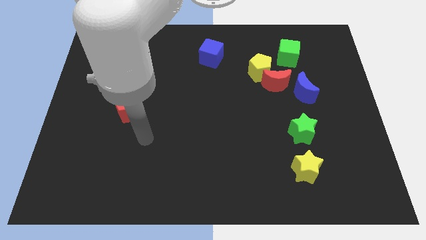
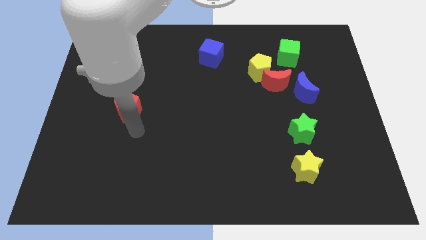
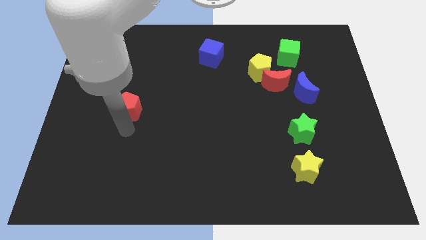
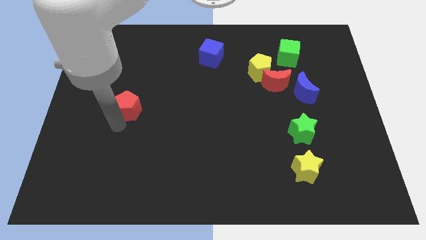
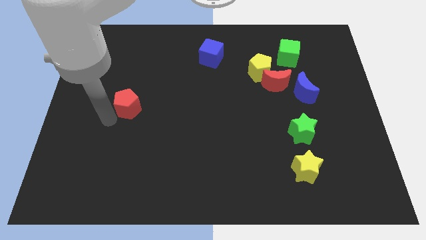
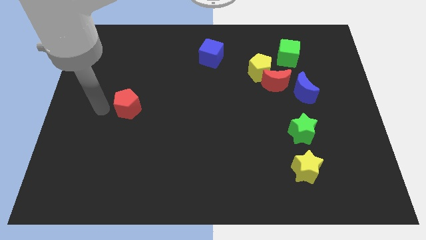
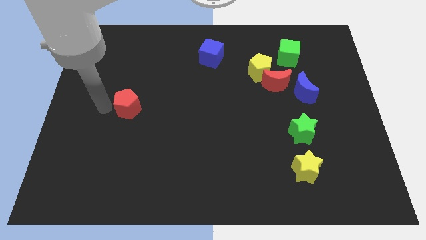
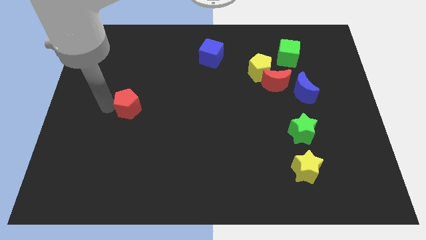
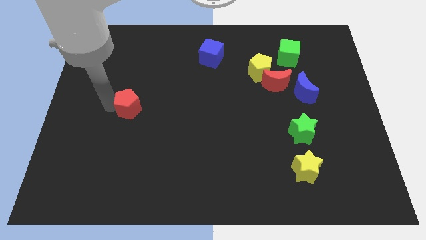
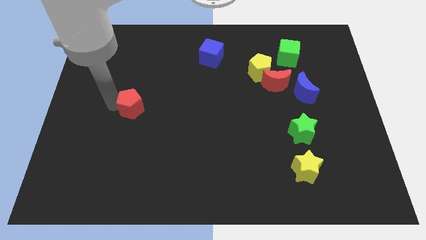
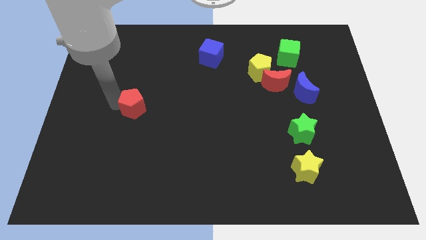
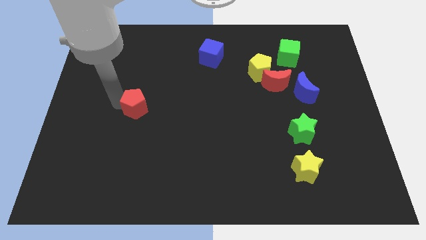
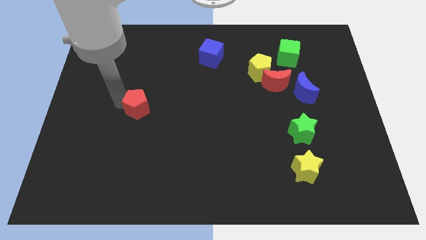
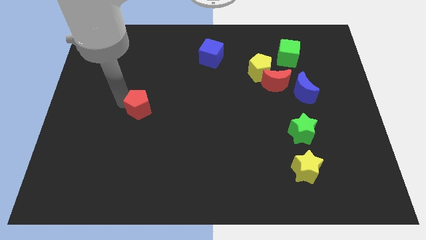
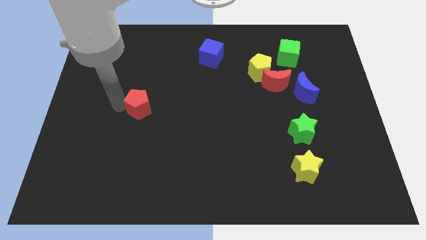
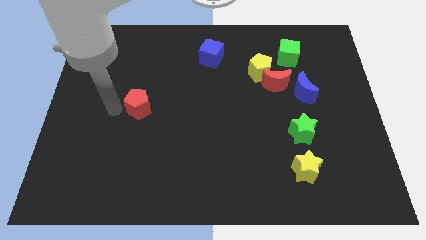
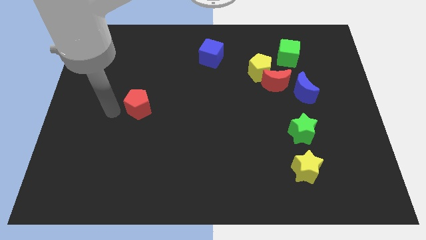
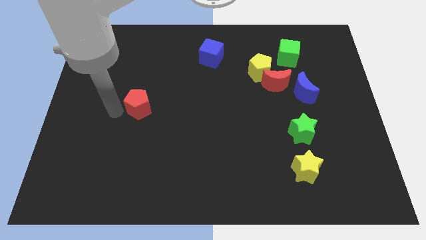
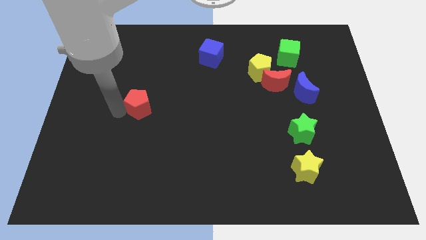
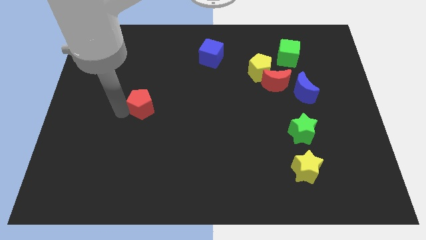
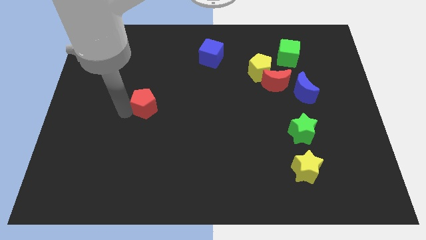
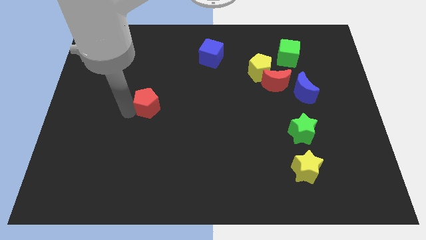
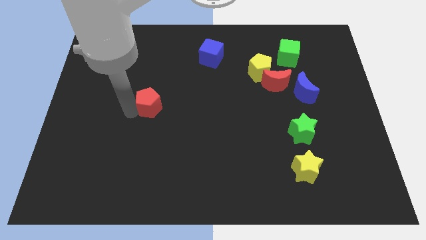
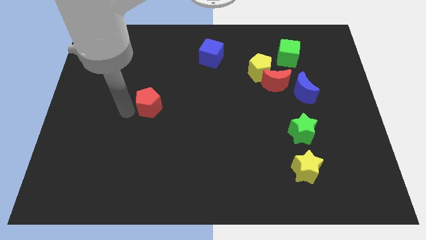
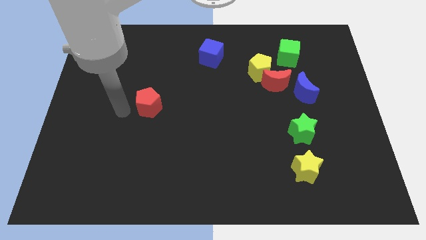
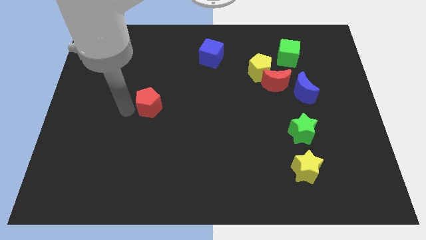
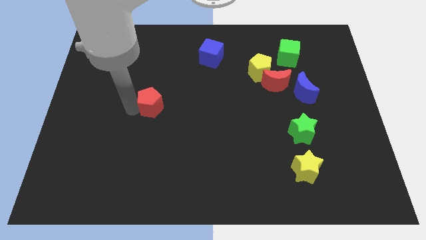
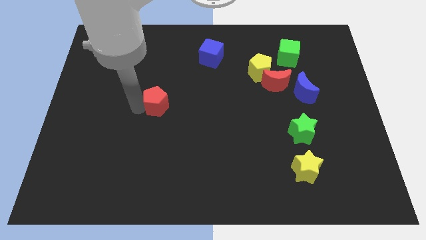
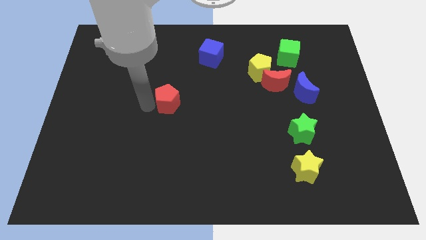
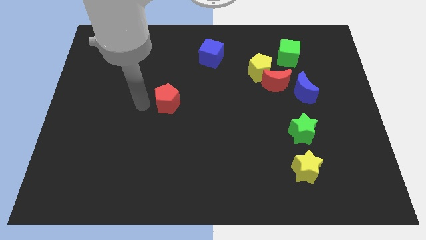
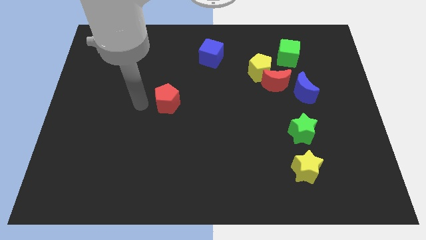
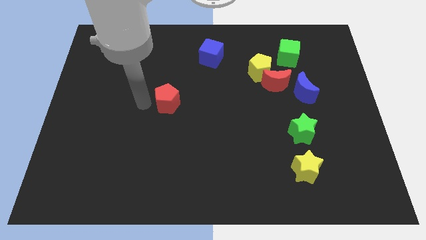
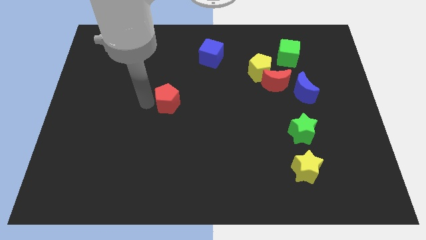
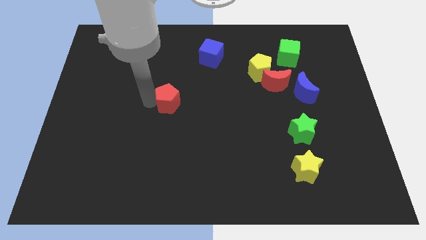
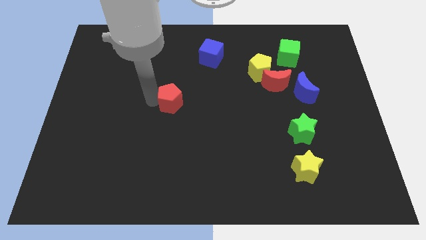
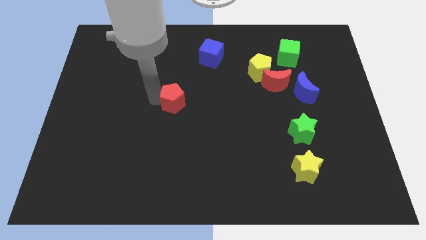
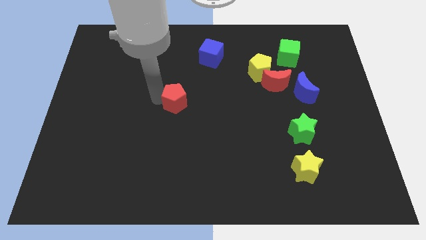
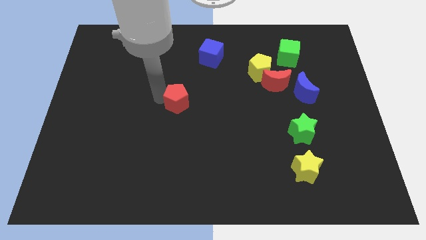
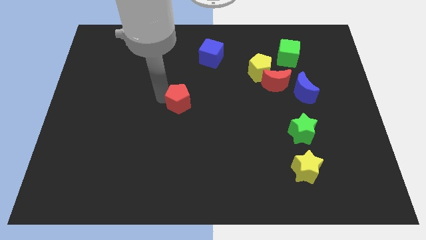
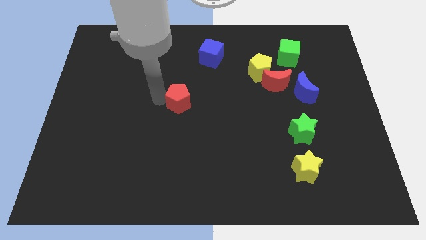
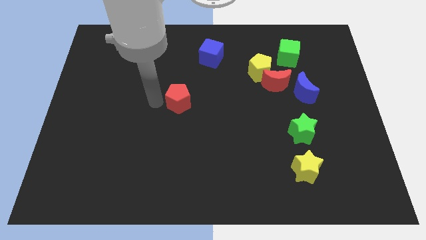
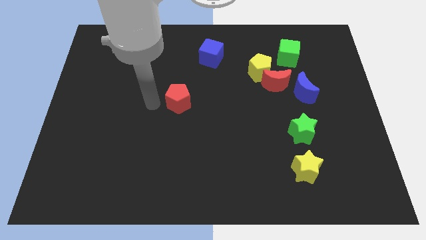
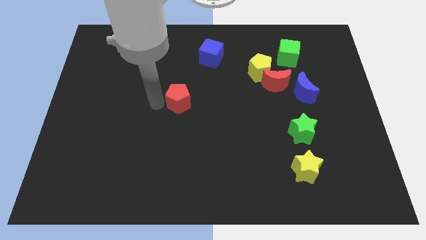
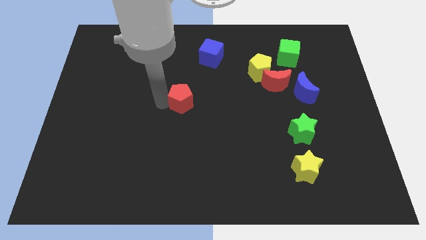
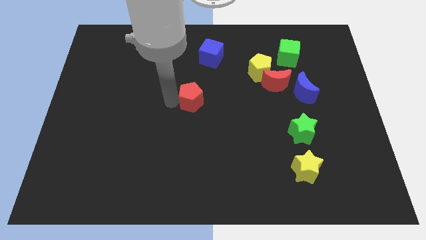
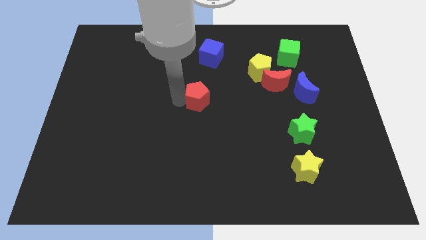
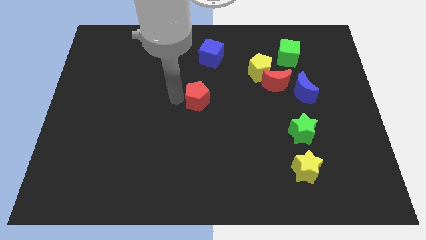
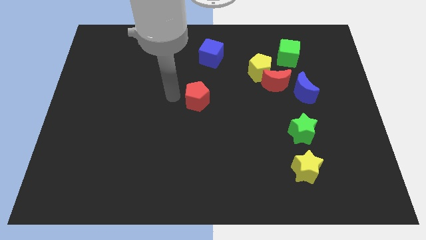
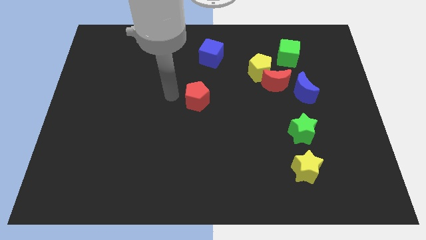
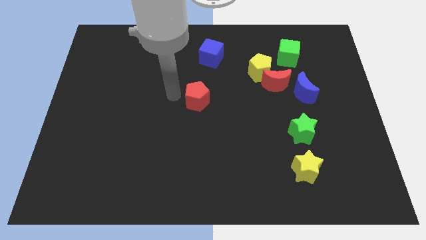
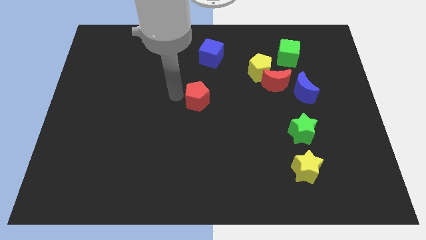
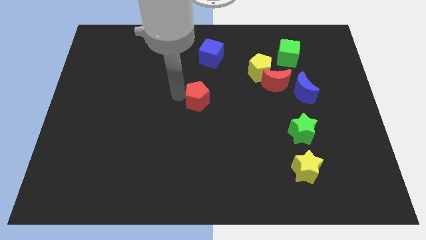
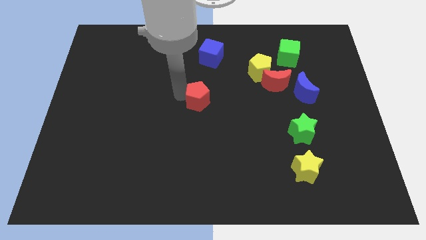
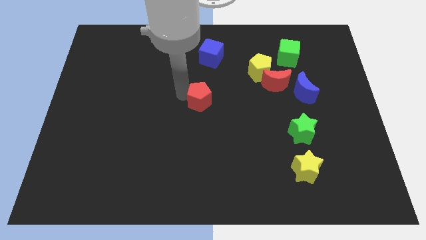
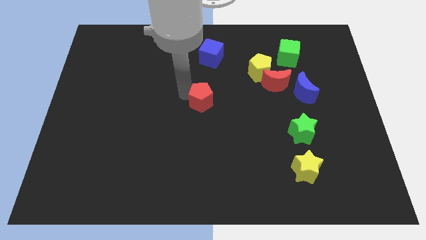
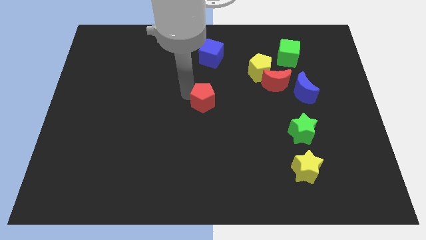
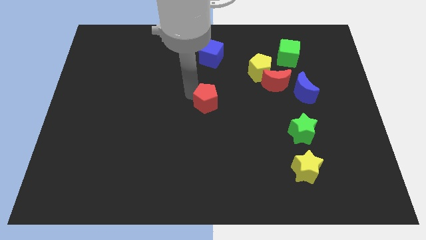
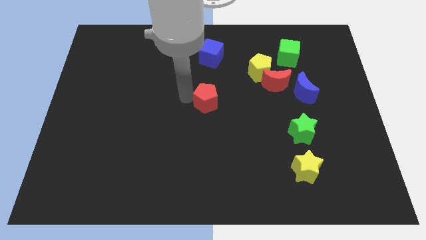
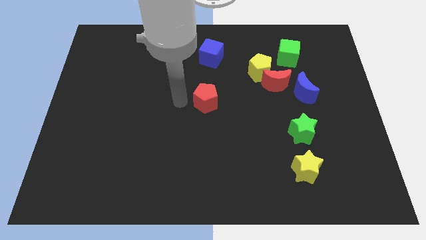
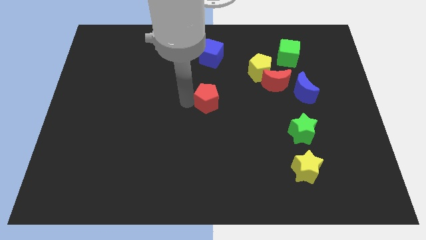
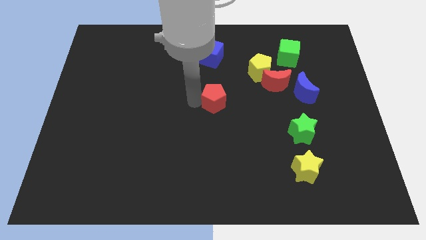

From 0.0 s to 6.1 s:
move the red pentagon right

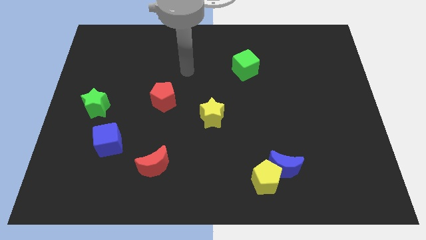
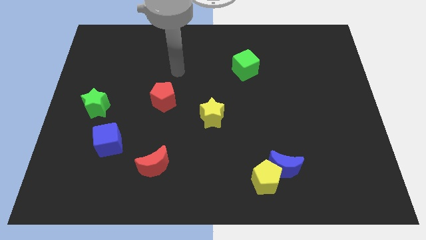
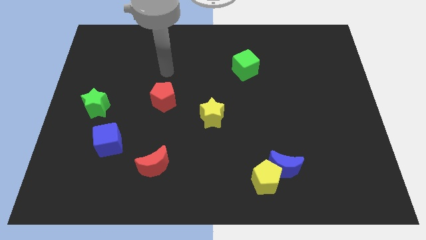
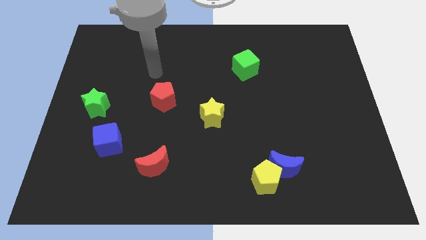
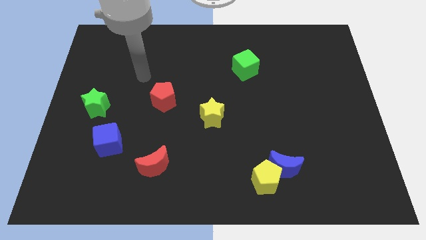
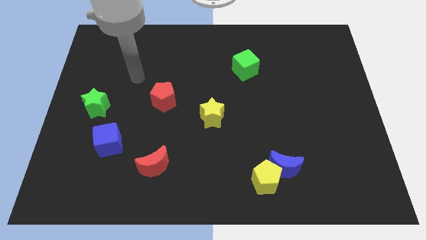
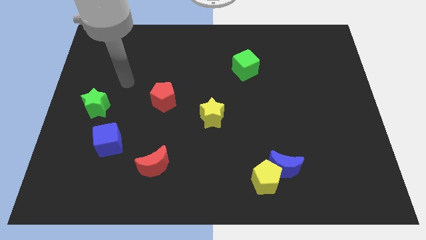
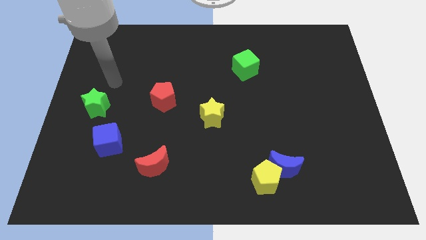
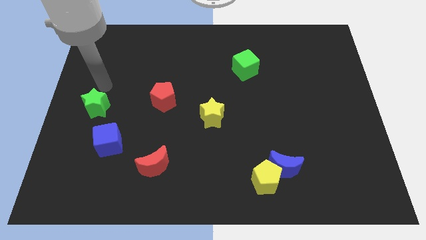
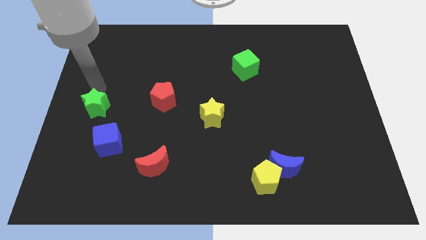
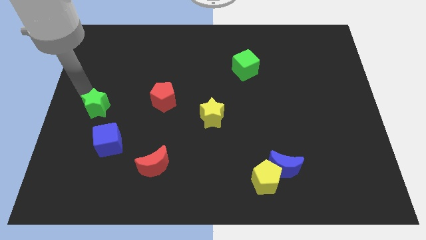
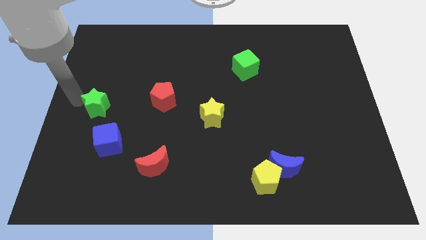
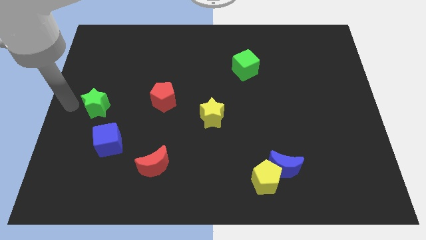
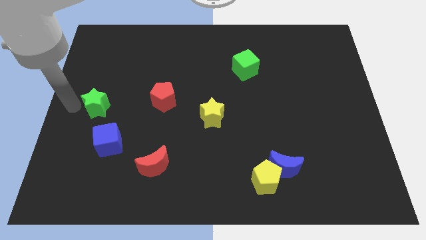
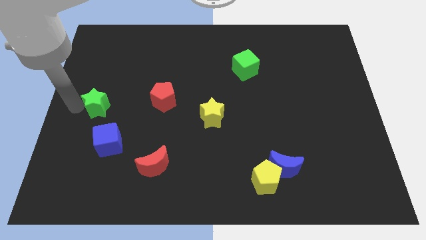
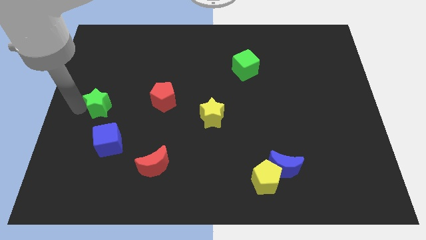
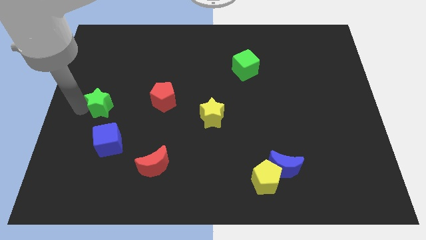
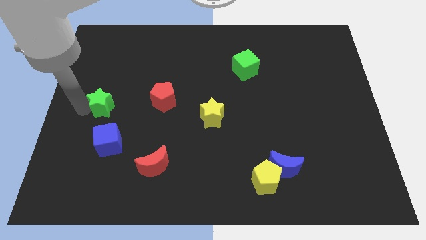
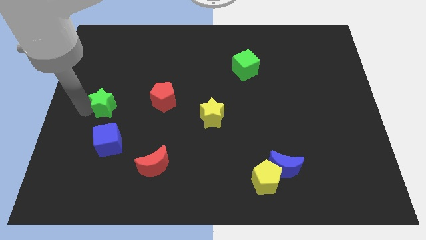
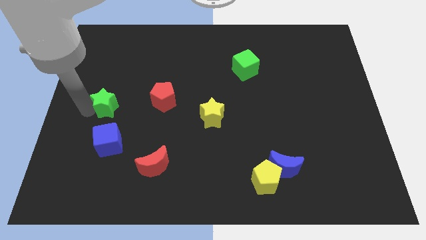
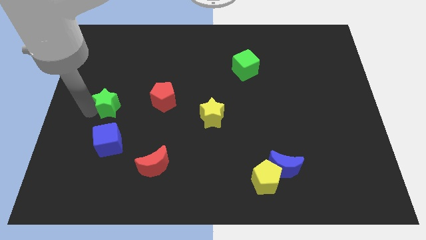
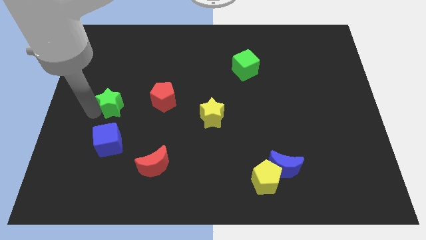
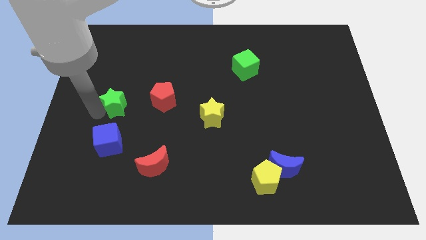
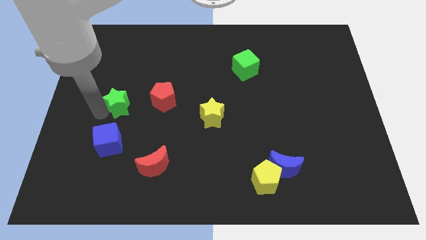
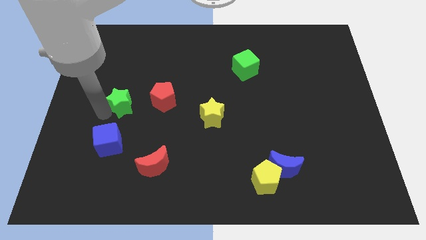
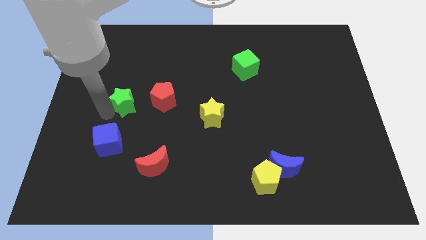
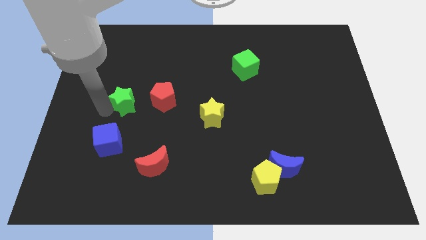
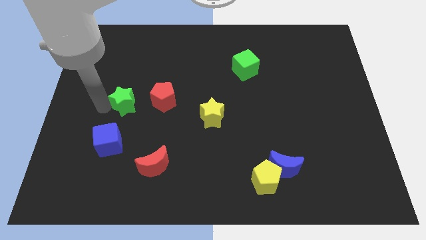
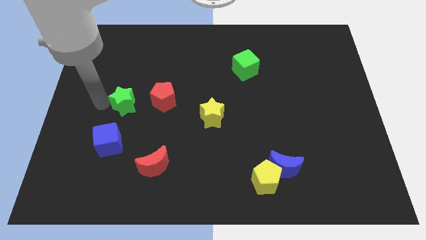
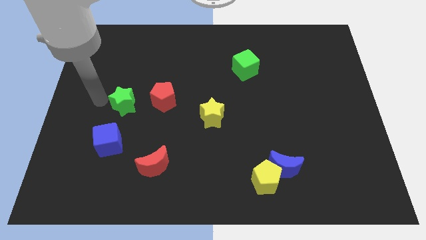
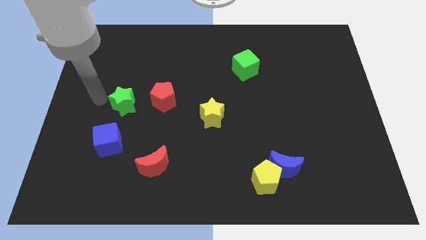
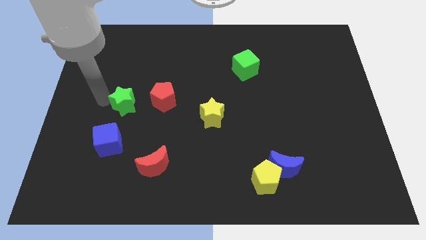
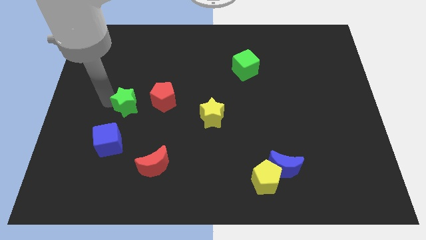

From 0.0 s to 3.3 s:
slide the green star to the right slightly
